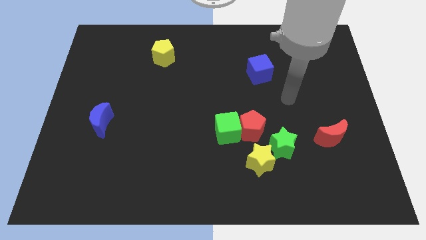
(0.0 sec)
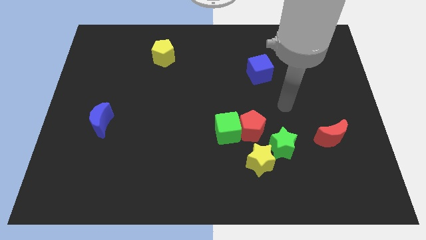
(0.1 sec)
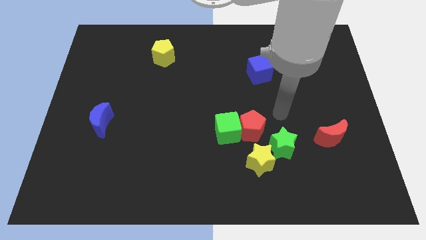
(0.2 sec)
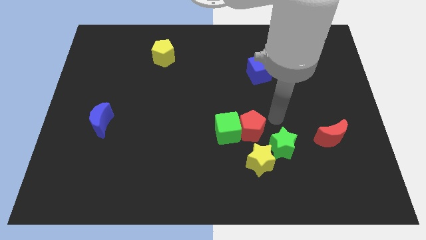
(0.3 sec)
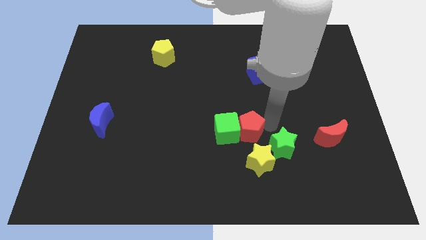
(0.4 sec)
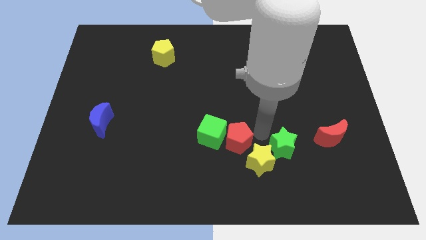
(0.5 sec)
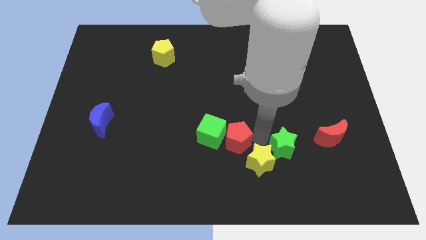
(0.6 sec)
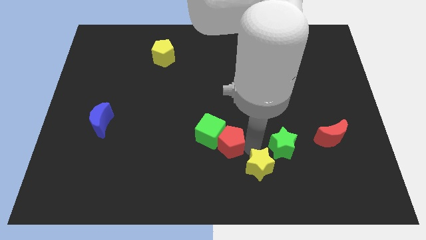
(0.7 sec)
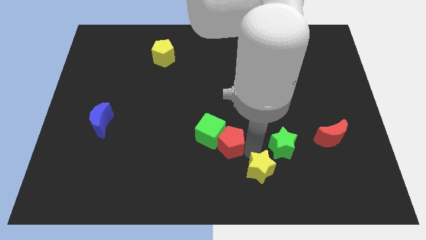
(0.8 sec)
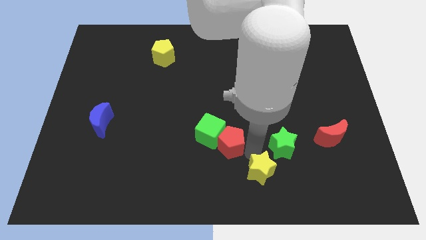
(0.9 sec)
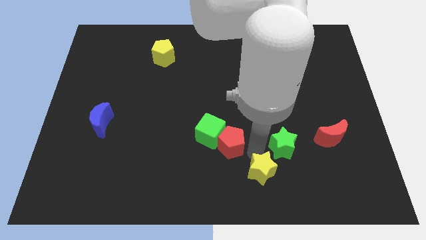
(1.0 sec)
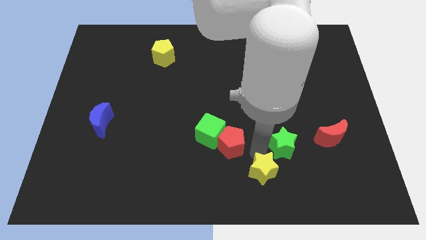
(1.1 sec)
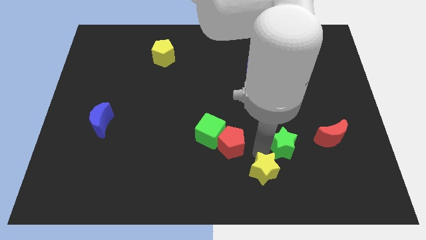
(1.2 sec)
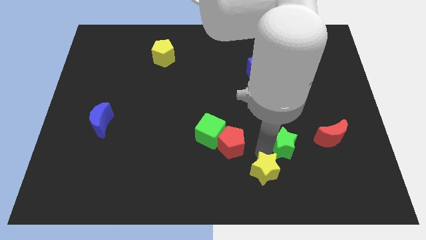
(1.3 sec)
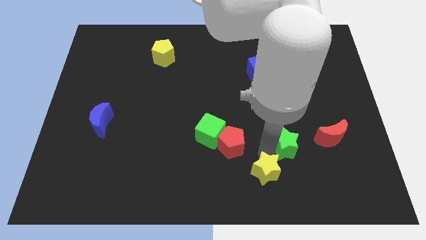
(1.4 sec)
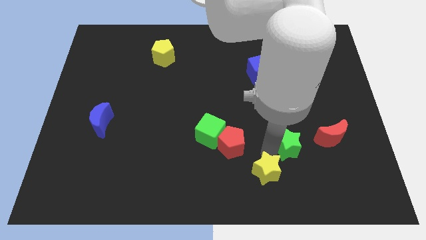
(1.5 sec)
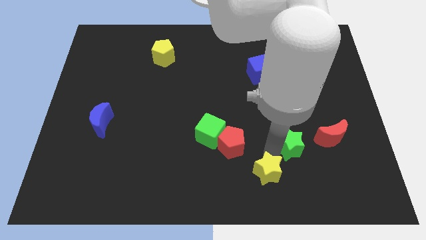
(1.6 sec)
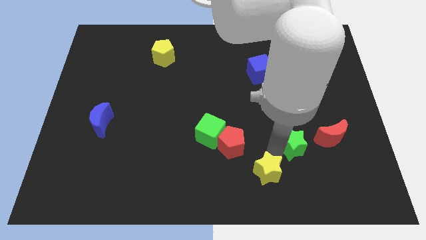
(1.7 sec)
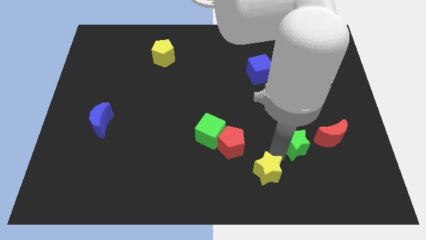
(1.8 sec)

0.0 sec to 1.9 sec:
move the green star away from the yellow star and red pentagon

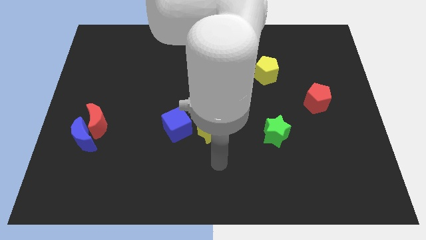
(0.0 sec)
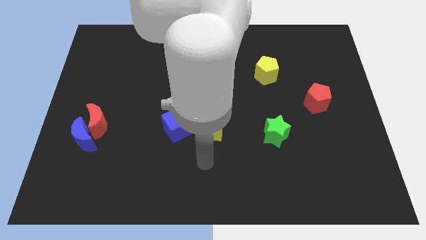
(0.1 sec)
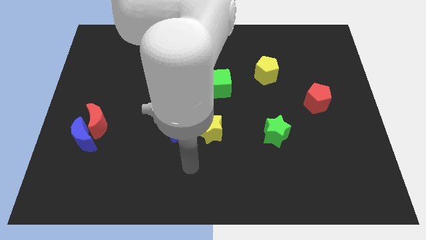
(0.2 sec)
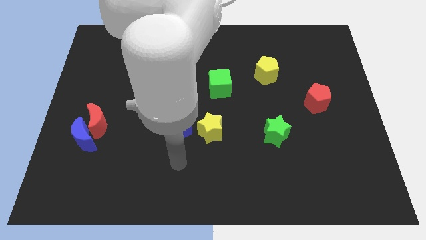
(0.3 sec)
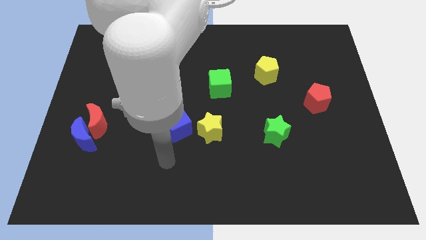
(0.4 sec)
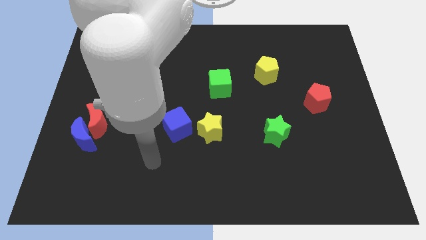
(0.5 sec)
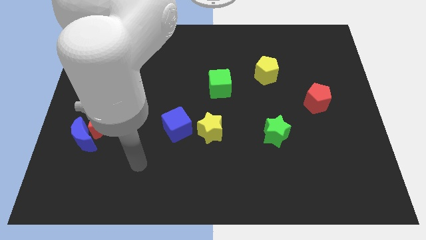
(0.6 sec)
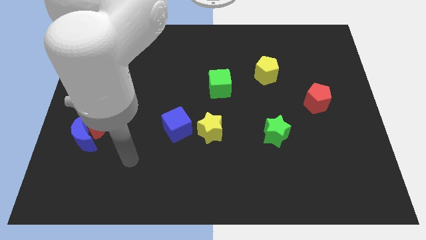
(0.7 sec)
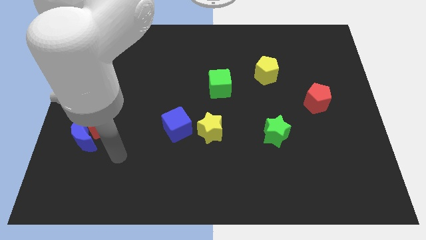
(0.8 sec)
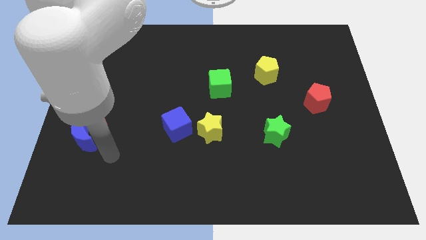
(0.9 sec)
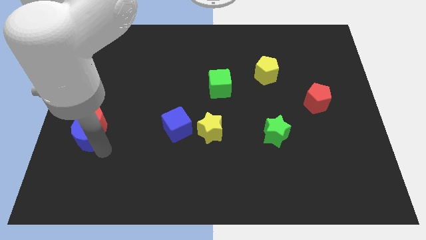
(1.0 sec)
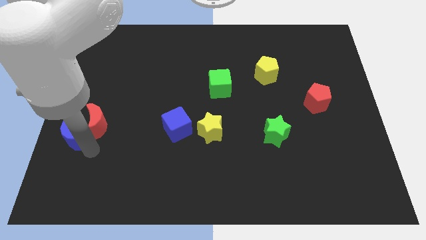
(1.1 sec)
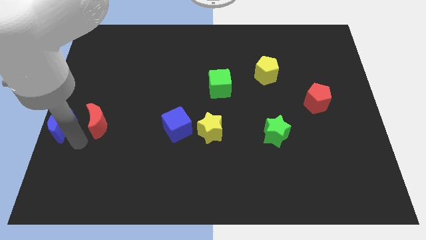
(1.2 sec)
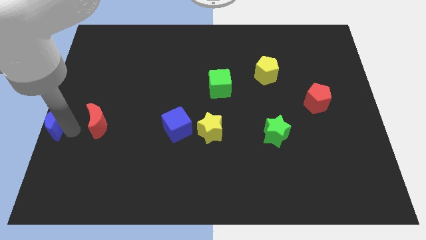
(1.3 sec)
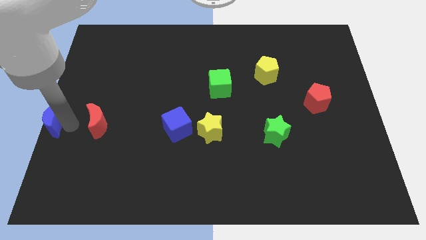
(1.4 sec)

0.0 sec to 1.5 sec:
separate the red moon from the blue moon

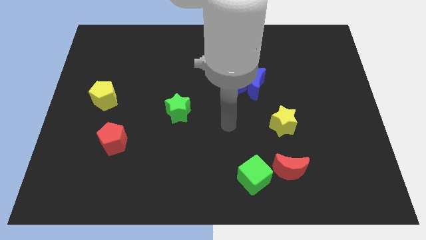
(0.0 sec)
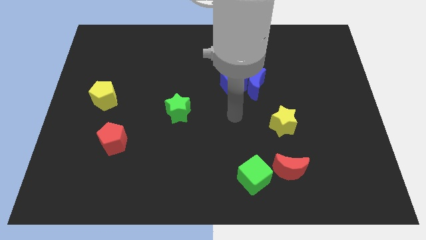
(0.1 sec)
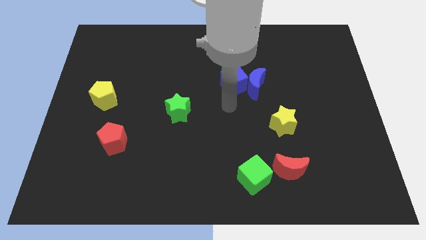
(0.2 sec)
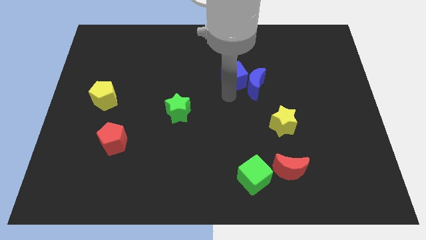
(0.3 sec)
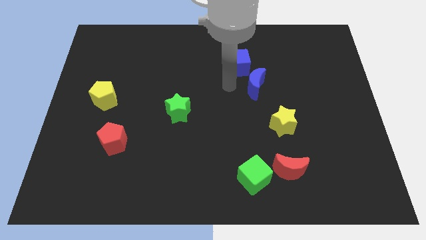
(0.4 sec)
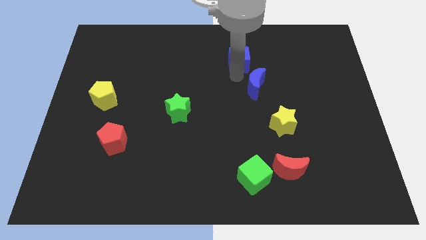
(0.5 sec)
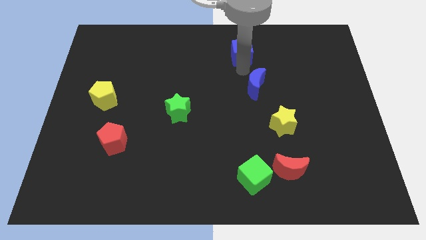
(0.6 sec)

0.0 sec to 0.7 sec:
separate the blue moon from the blue cube

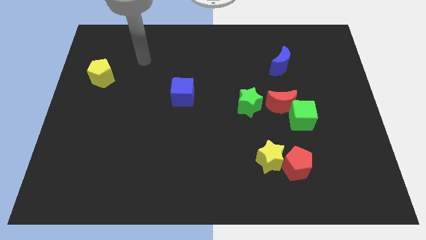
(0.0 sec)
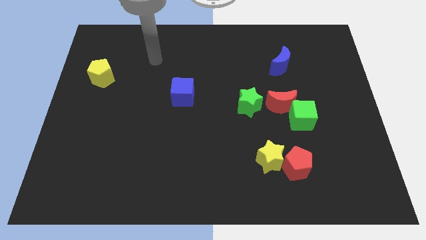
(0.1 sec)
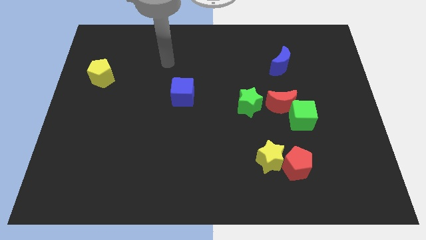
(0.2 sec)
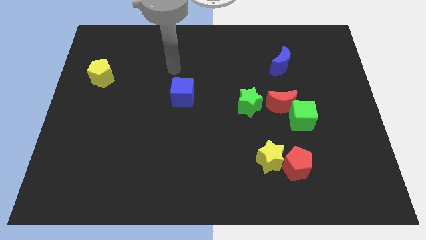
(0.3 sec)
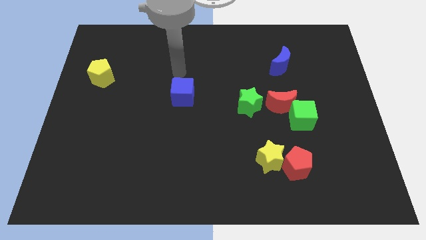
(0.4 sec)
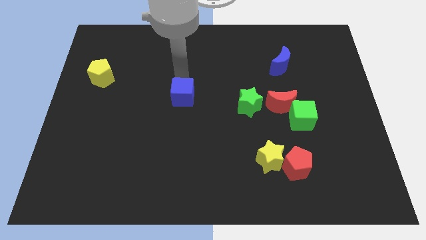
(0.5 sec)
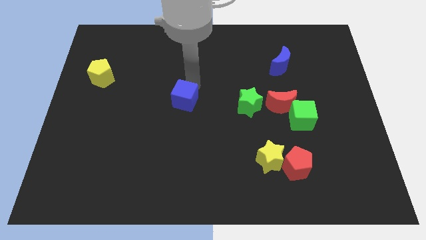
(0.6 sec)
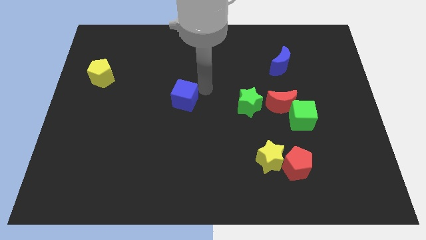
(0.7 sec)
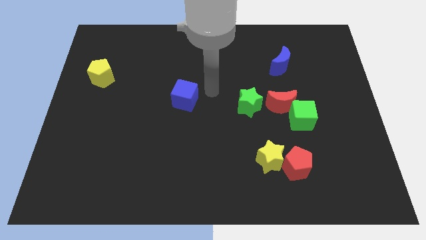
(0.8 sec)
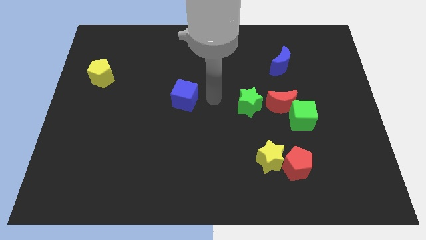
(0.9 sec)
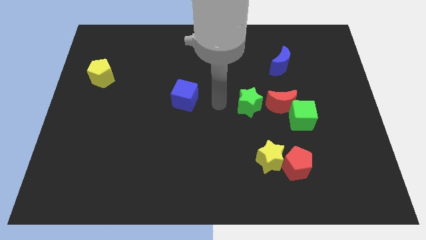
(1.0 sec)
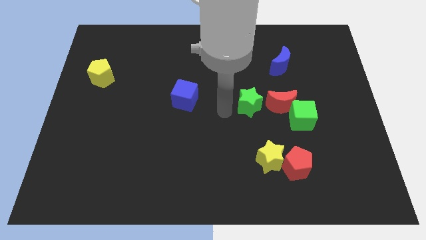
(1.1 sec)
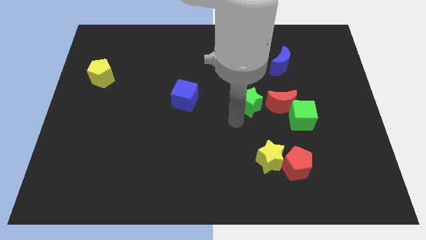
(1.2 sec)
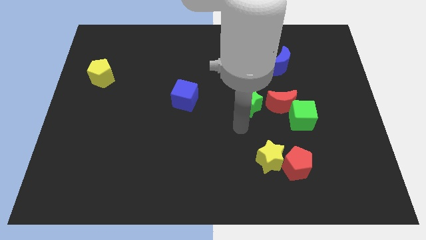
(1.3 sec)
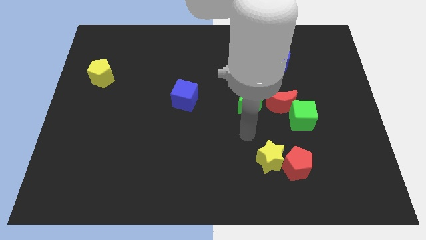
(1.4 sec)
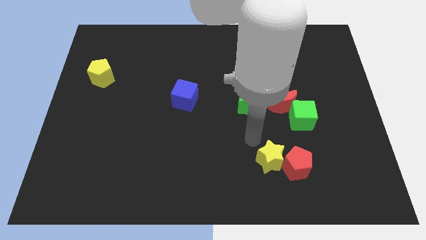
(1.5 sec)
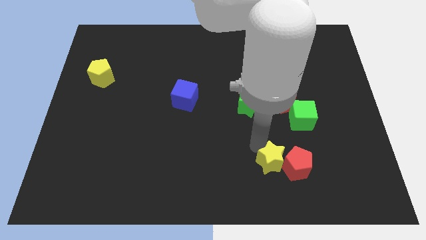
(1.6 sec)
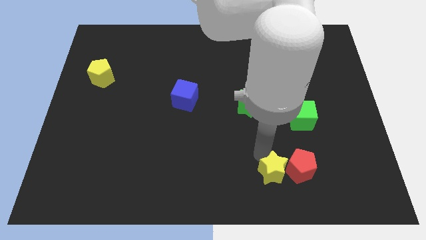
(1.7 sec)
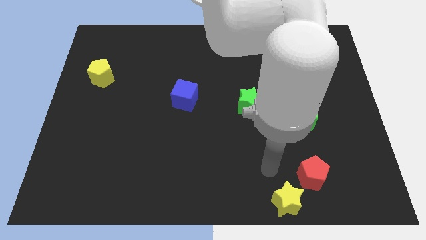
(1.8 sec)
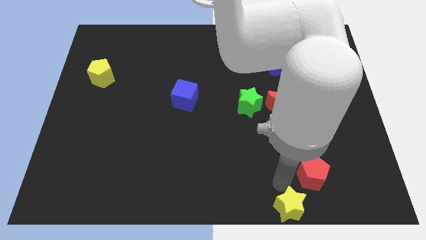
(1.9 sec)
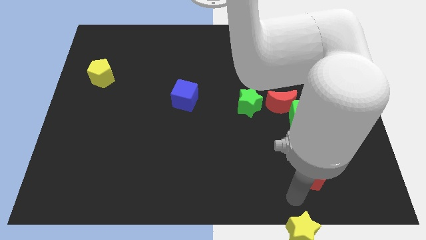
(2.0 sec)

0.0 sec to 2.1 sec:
separate the red pentagon from the yellow star

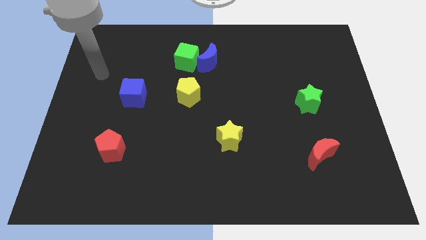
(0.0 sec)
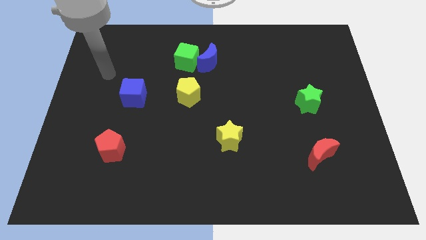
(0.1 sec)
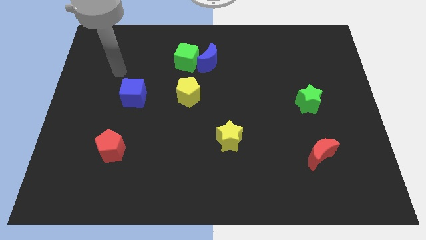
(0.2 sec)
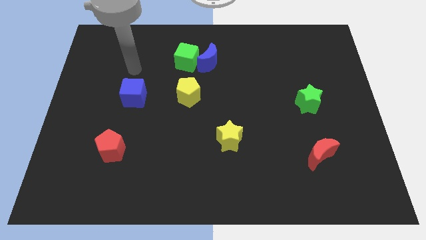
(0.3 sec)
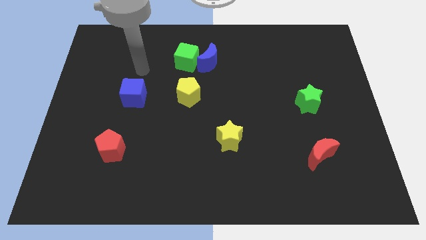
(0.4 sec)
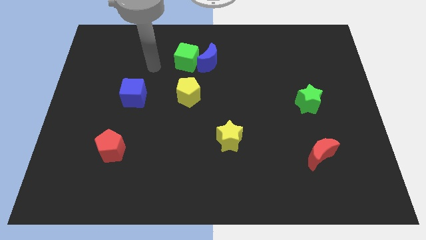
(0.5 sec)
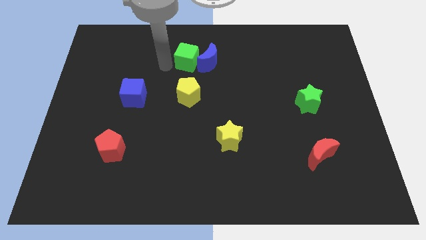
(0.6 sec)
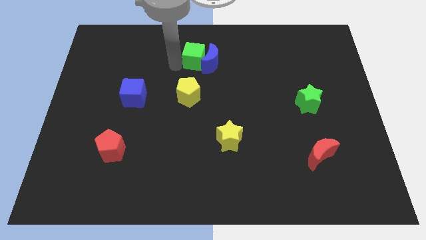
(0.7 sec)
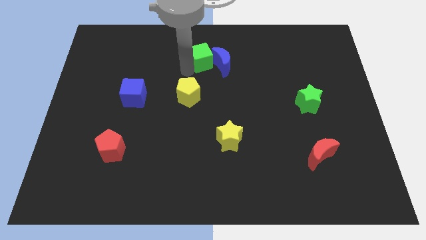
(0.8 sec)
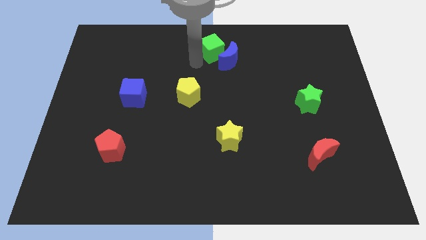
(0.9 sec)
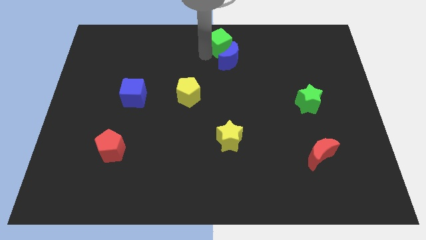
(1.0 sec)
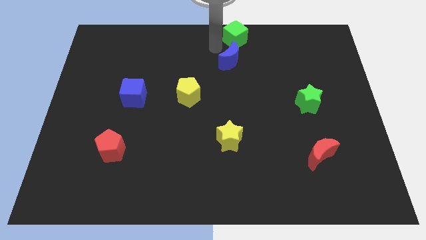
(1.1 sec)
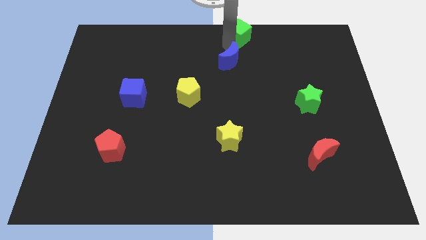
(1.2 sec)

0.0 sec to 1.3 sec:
pull the blue moon apart from the green cube

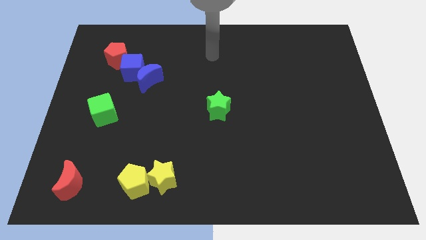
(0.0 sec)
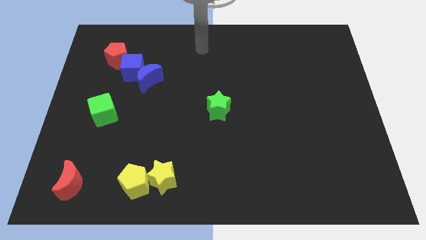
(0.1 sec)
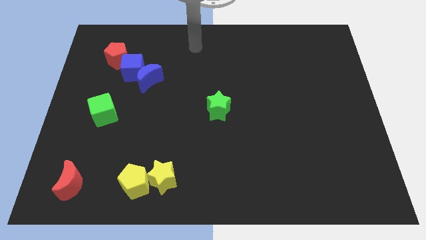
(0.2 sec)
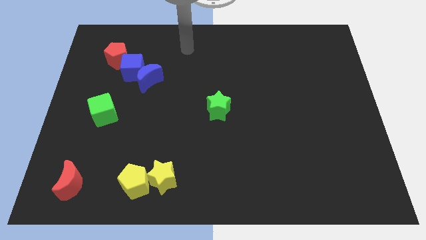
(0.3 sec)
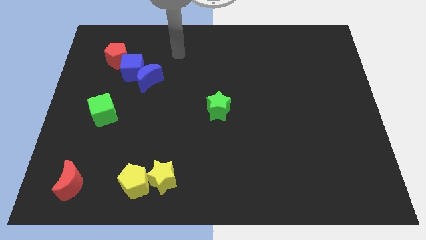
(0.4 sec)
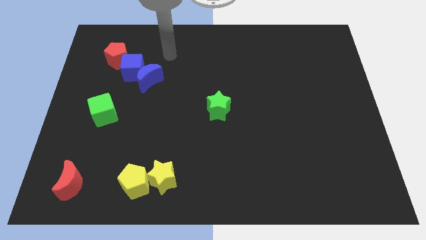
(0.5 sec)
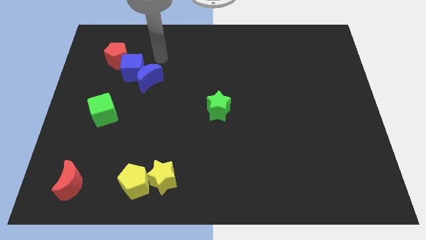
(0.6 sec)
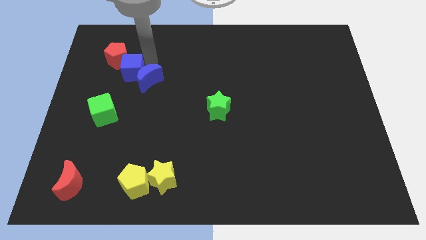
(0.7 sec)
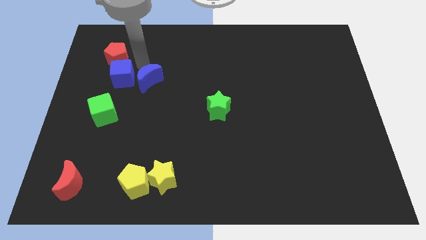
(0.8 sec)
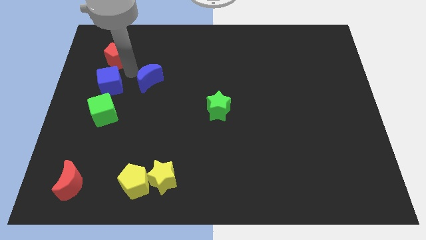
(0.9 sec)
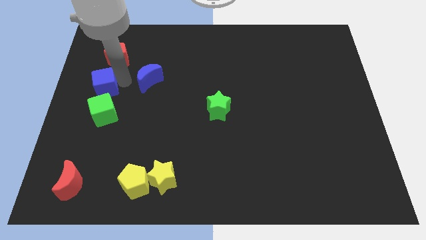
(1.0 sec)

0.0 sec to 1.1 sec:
move the blue moon away from the blue cube

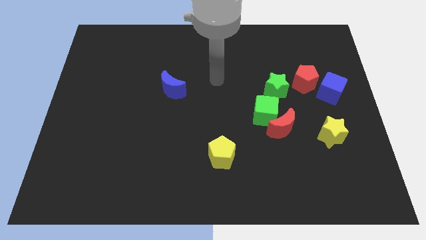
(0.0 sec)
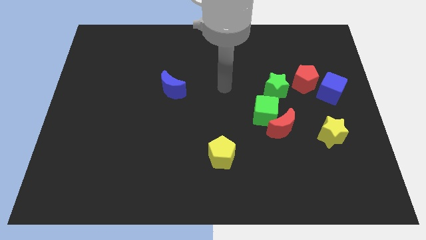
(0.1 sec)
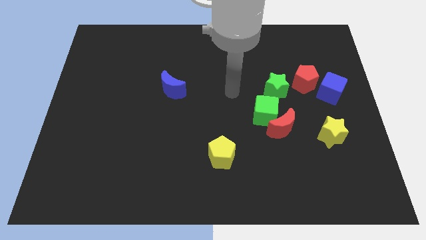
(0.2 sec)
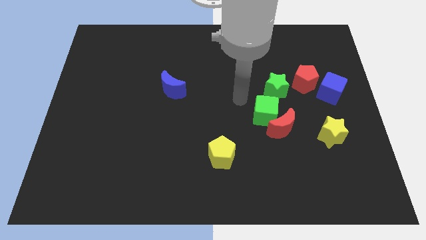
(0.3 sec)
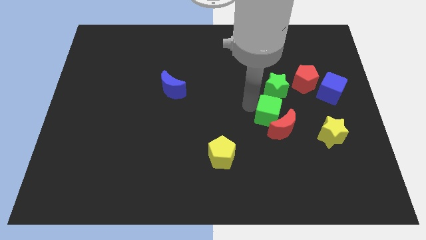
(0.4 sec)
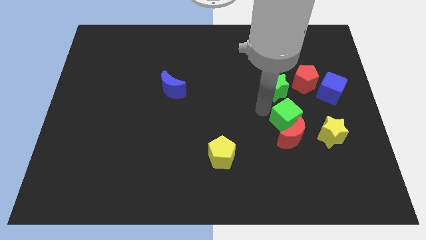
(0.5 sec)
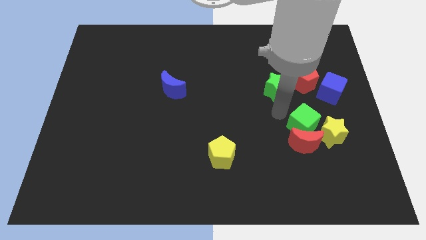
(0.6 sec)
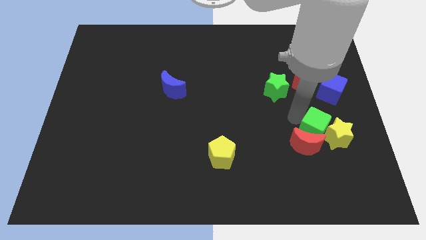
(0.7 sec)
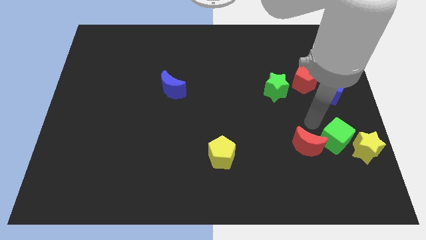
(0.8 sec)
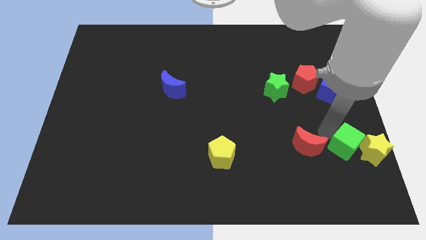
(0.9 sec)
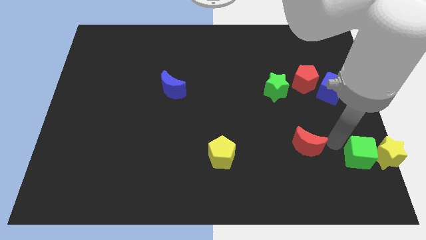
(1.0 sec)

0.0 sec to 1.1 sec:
separate the red moon from the green cube
